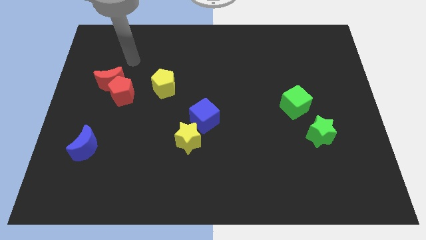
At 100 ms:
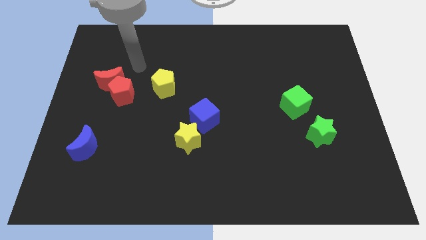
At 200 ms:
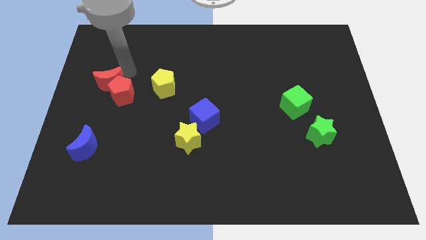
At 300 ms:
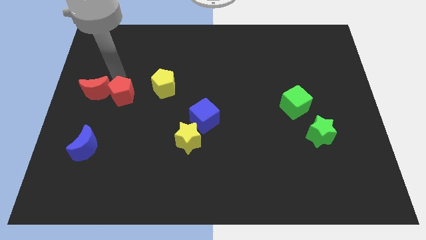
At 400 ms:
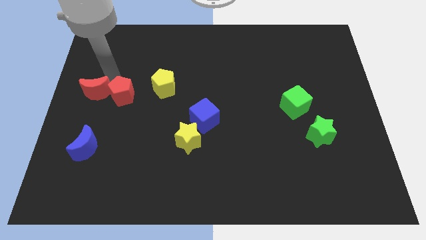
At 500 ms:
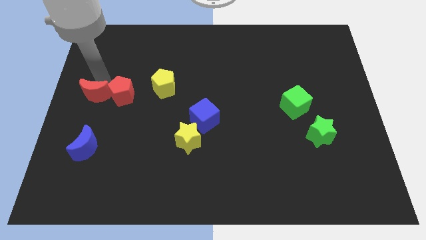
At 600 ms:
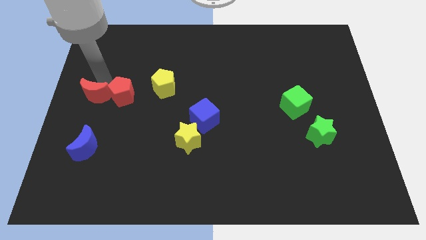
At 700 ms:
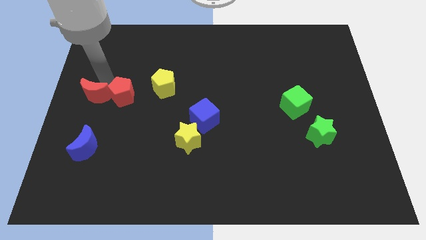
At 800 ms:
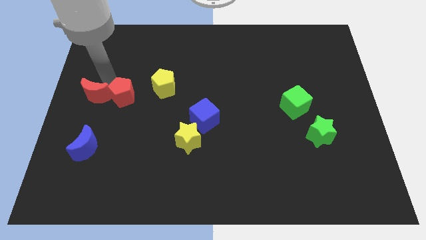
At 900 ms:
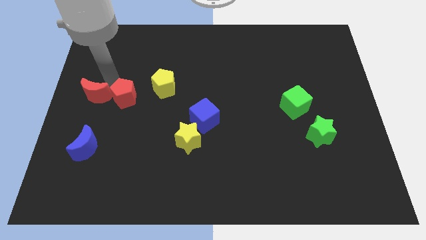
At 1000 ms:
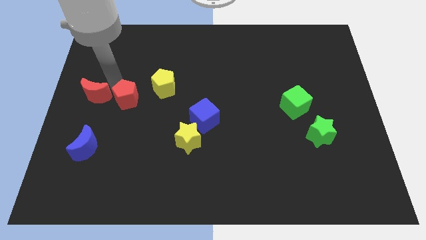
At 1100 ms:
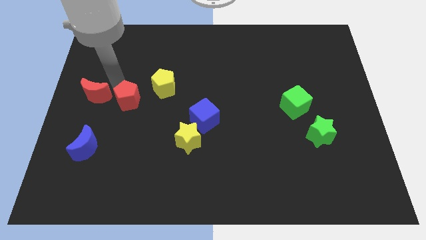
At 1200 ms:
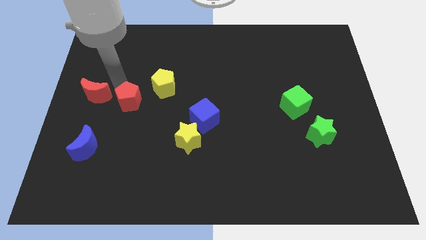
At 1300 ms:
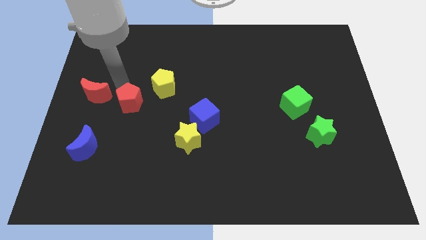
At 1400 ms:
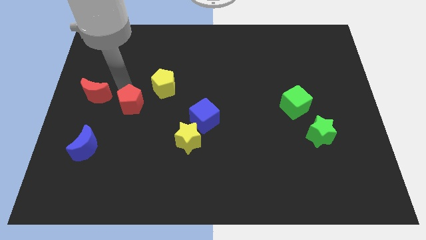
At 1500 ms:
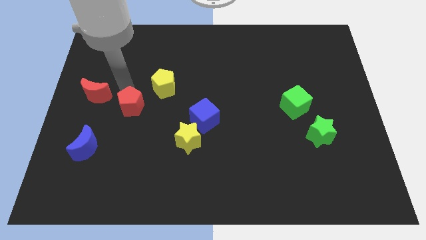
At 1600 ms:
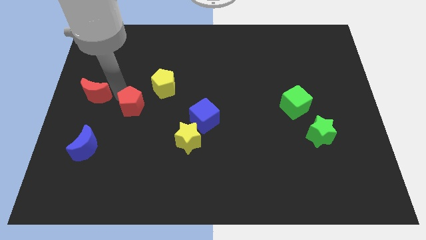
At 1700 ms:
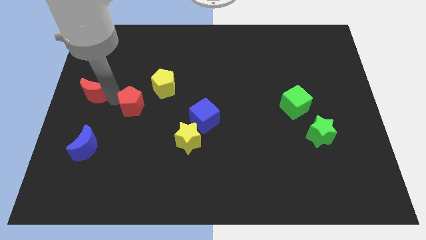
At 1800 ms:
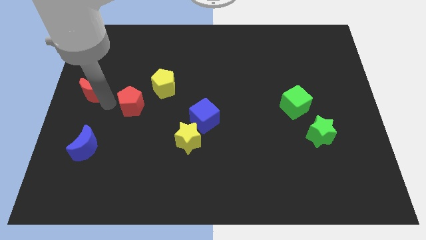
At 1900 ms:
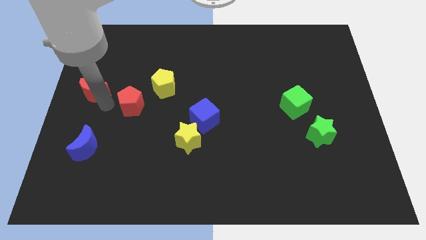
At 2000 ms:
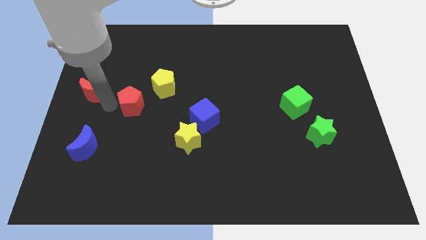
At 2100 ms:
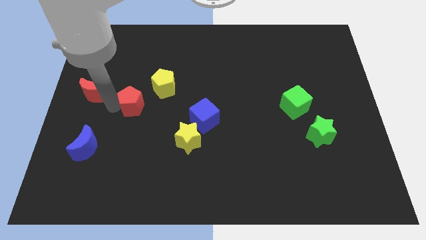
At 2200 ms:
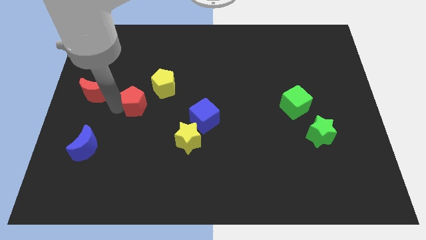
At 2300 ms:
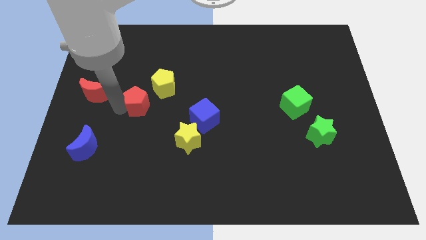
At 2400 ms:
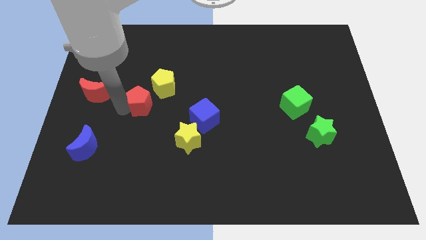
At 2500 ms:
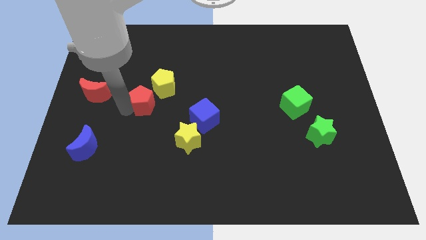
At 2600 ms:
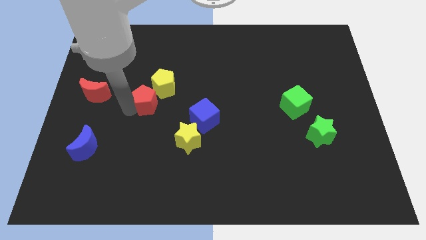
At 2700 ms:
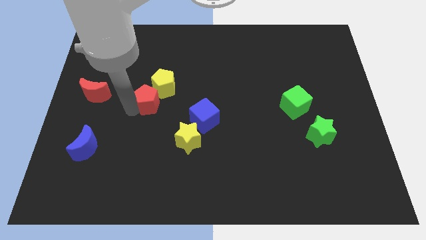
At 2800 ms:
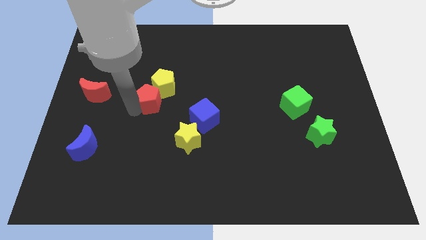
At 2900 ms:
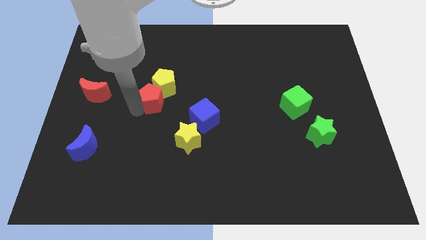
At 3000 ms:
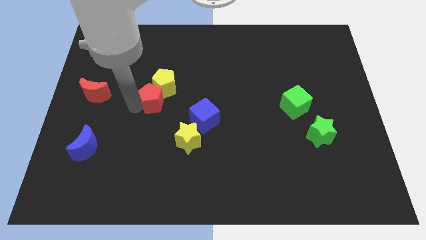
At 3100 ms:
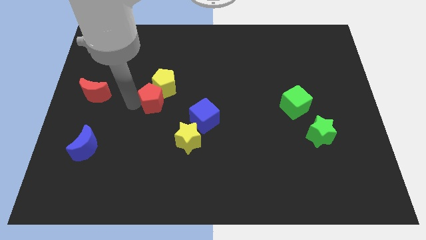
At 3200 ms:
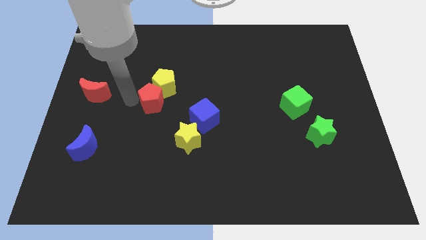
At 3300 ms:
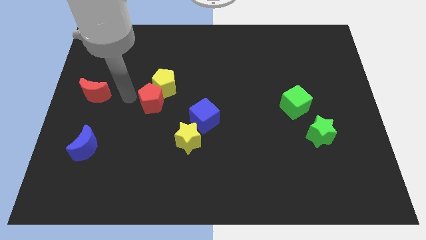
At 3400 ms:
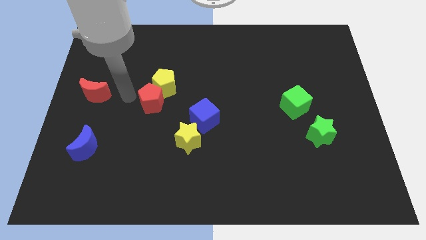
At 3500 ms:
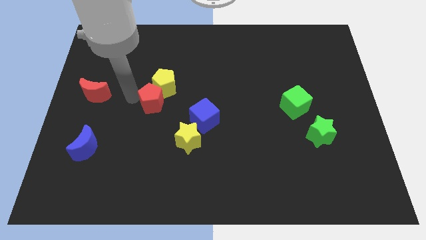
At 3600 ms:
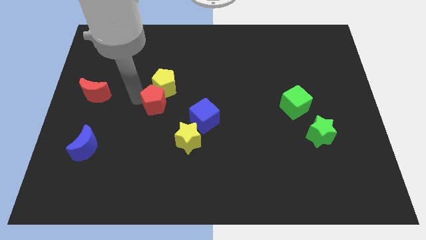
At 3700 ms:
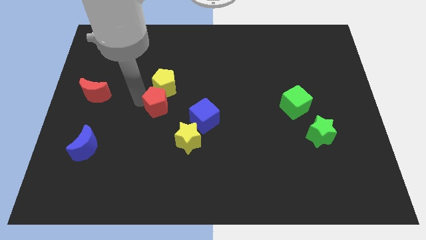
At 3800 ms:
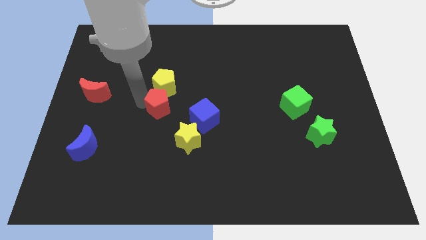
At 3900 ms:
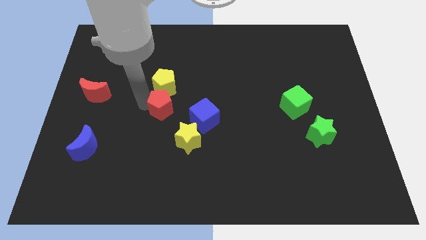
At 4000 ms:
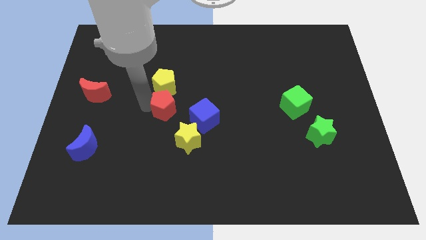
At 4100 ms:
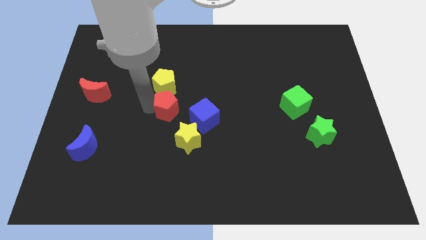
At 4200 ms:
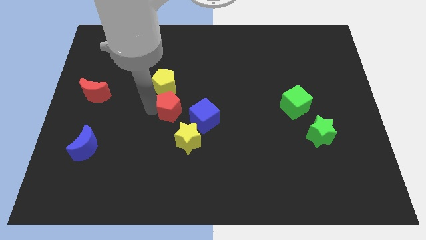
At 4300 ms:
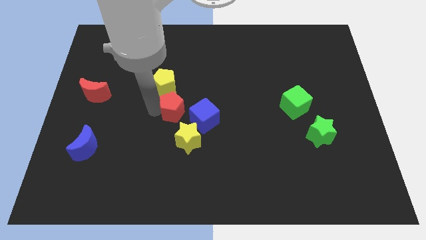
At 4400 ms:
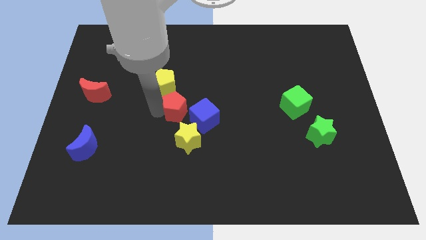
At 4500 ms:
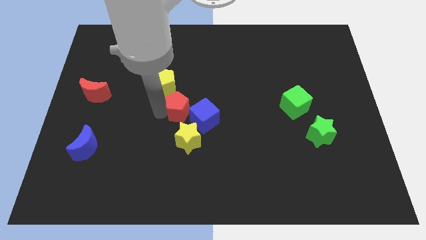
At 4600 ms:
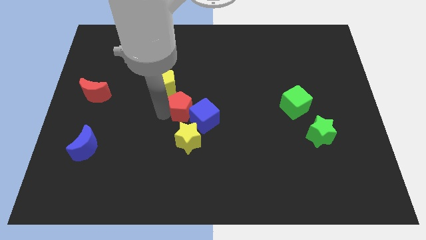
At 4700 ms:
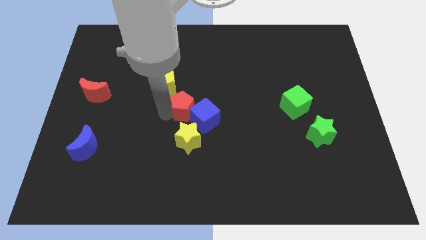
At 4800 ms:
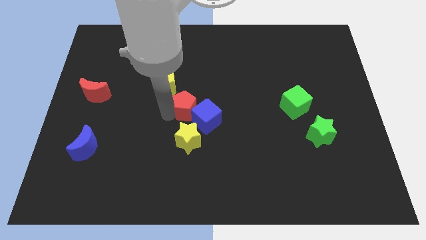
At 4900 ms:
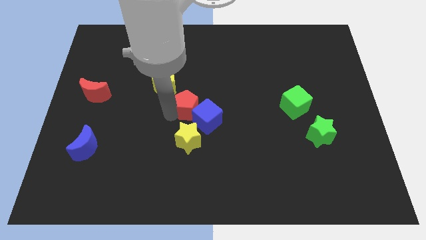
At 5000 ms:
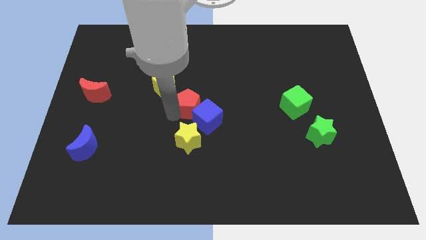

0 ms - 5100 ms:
put the red pentagon above the blue cube

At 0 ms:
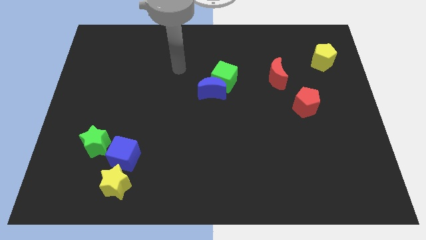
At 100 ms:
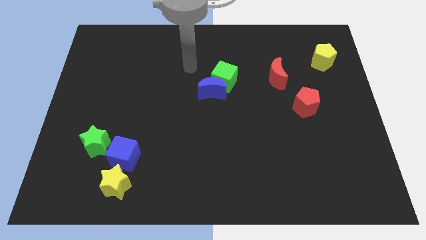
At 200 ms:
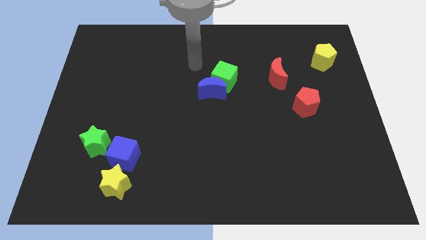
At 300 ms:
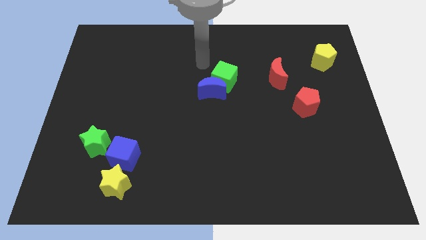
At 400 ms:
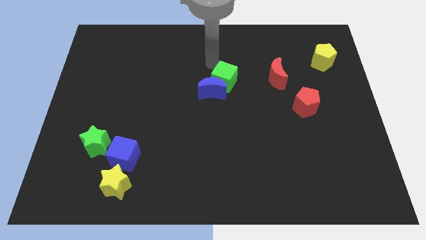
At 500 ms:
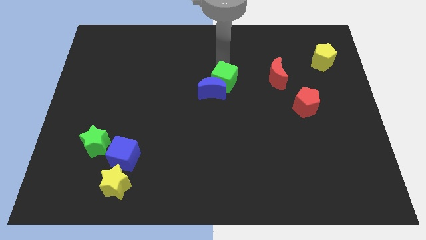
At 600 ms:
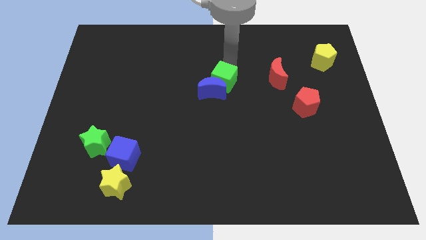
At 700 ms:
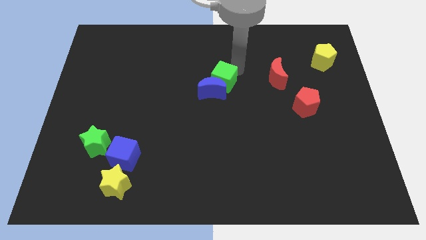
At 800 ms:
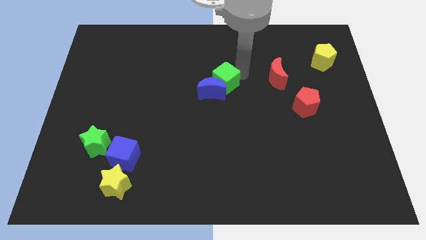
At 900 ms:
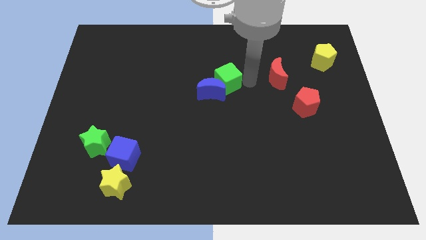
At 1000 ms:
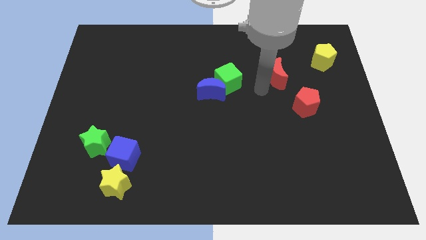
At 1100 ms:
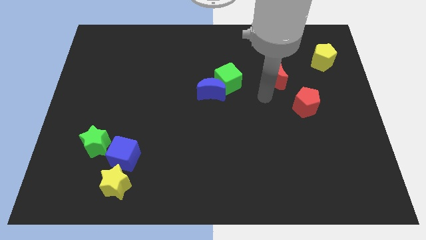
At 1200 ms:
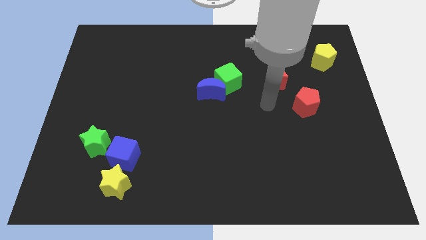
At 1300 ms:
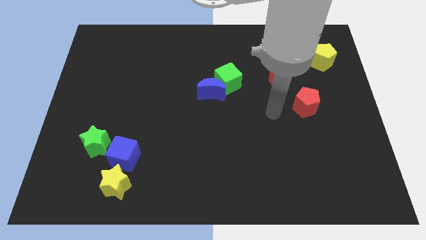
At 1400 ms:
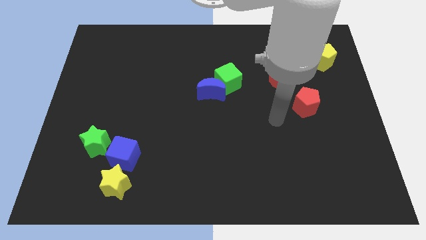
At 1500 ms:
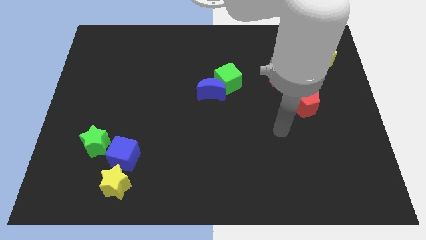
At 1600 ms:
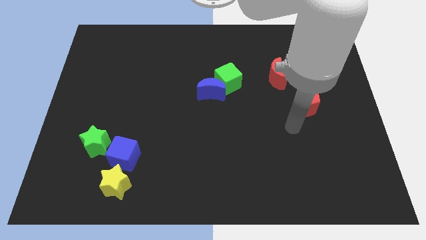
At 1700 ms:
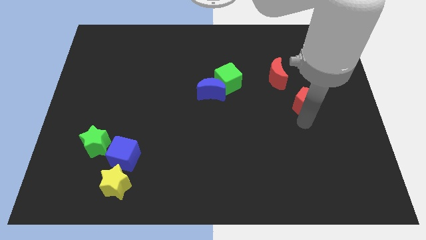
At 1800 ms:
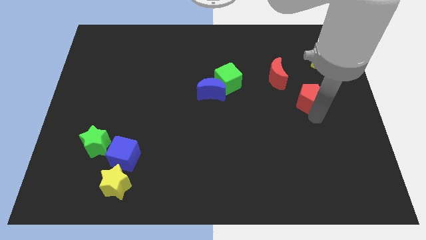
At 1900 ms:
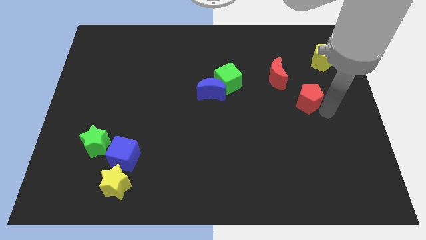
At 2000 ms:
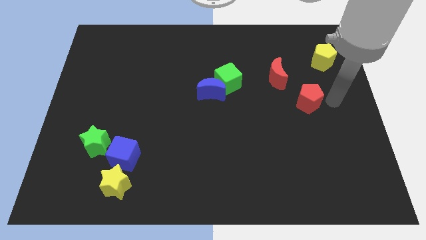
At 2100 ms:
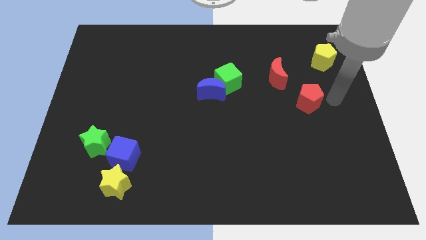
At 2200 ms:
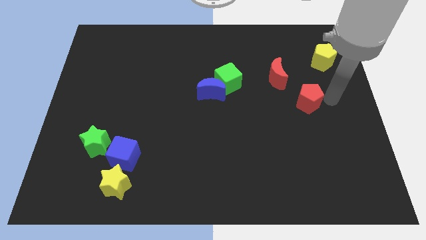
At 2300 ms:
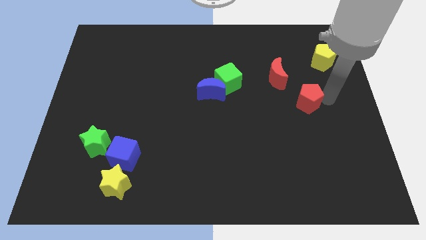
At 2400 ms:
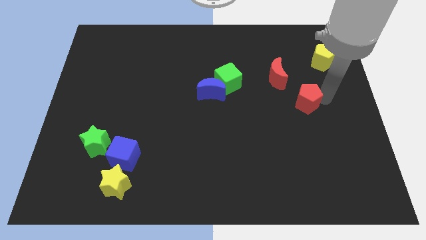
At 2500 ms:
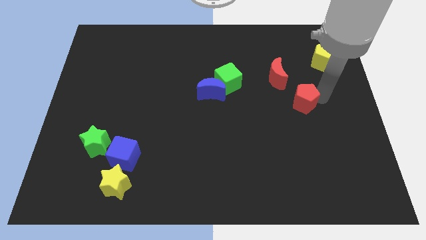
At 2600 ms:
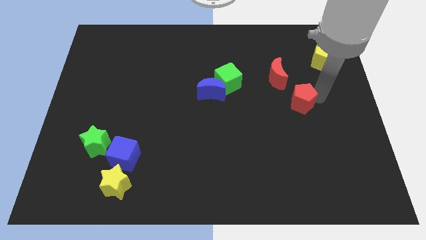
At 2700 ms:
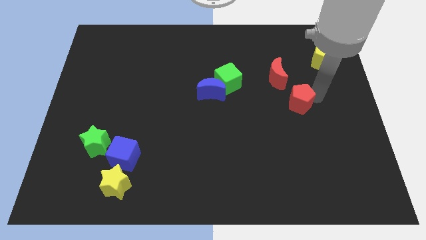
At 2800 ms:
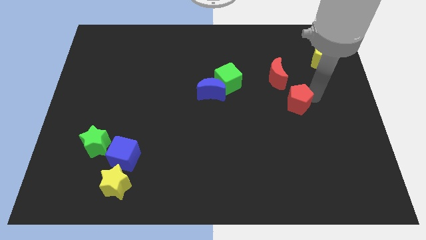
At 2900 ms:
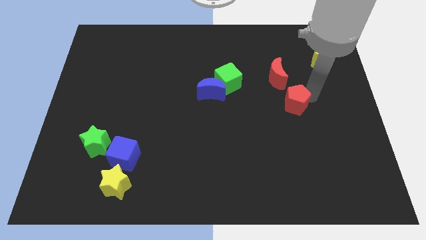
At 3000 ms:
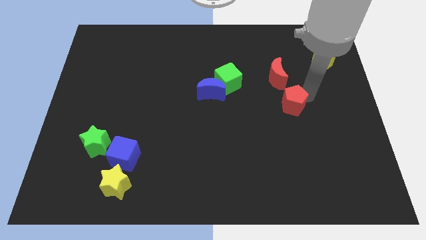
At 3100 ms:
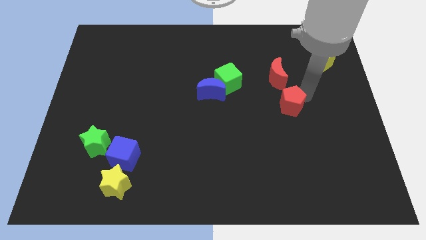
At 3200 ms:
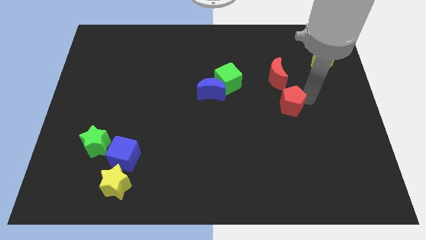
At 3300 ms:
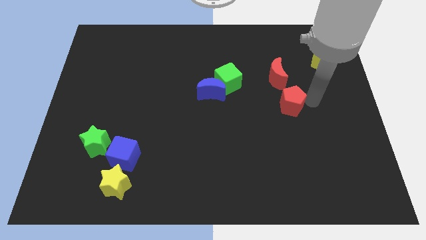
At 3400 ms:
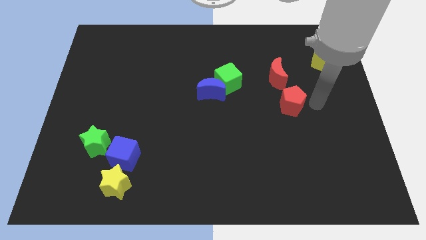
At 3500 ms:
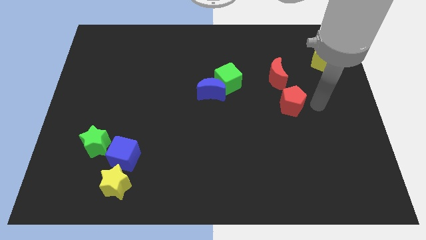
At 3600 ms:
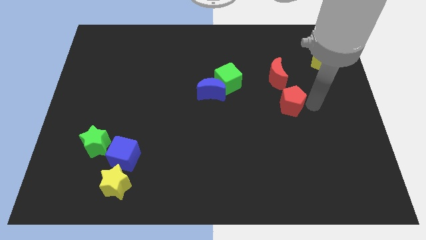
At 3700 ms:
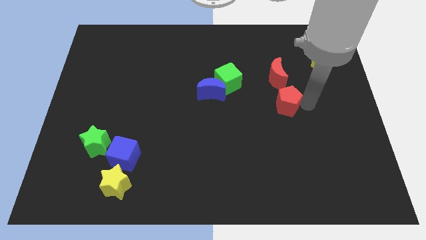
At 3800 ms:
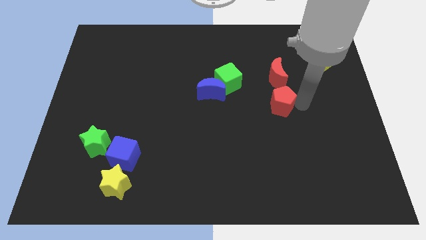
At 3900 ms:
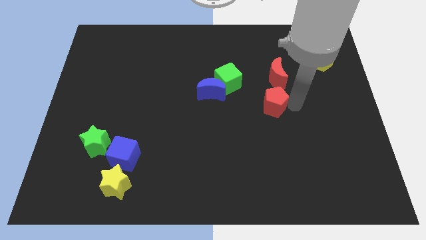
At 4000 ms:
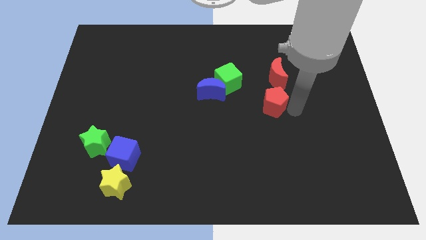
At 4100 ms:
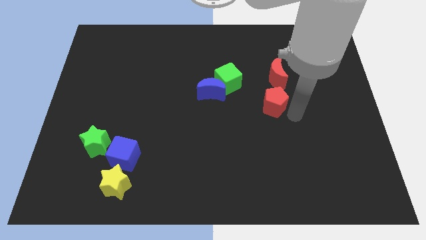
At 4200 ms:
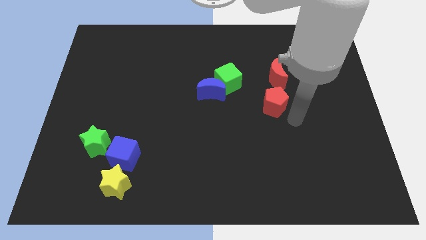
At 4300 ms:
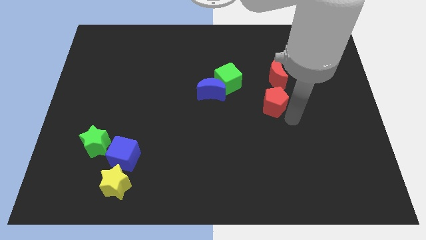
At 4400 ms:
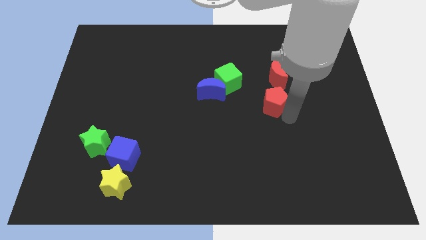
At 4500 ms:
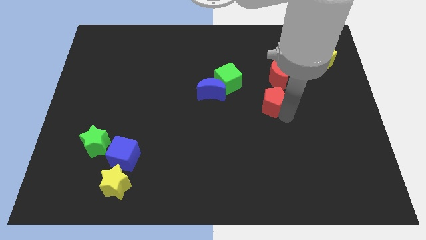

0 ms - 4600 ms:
put the red pentagon diagonally down and to the left of the red moon
